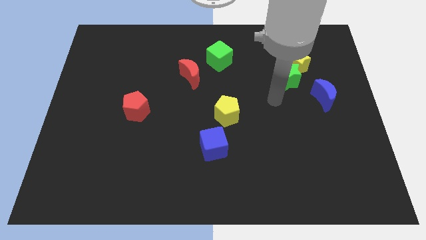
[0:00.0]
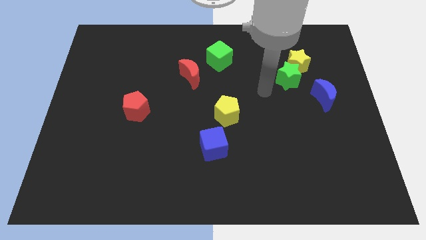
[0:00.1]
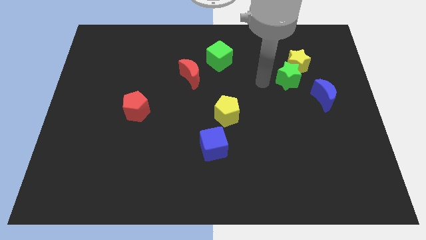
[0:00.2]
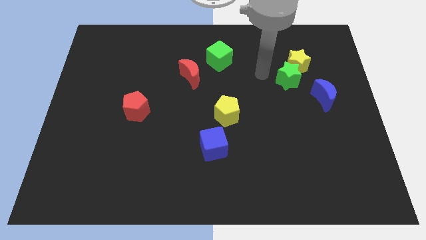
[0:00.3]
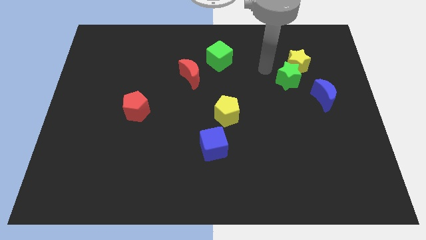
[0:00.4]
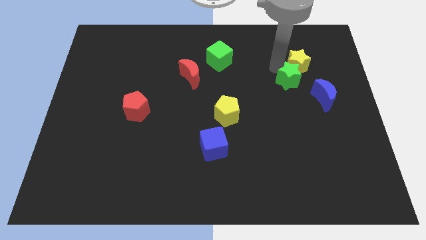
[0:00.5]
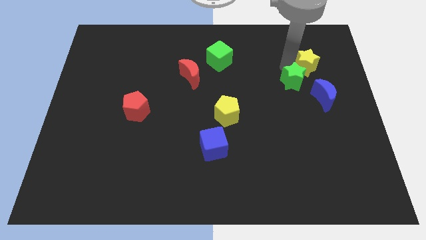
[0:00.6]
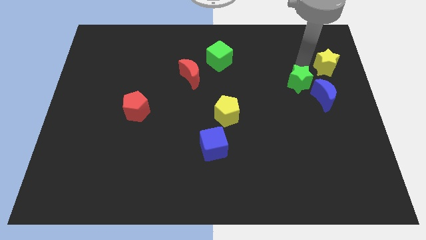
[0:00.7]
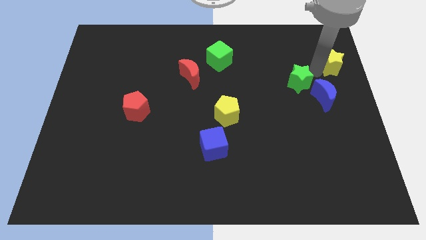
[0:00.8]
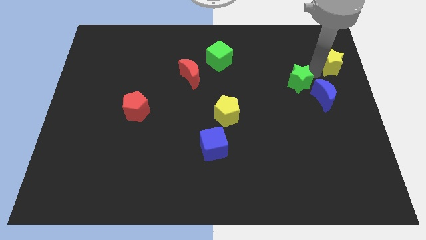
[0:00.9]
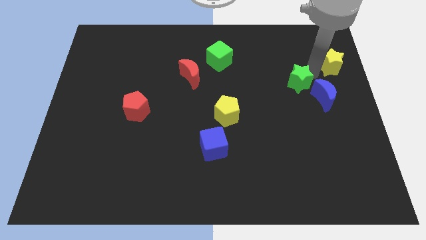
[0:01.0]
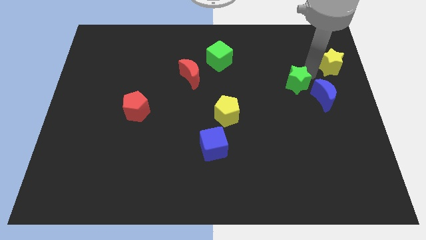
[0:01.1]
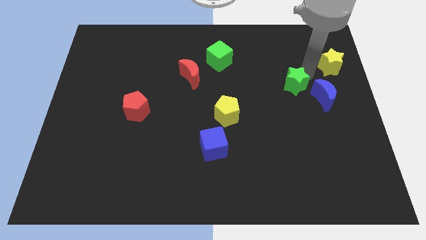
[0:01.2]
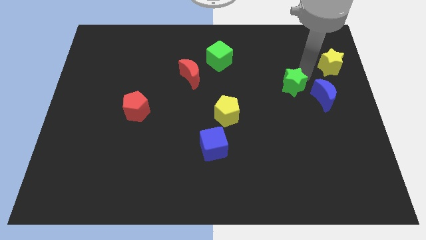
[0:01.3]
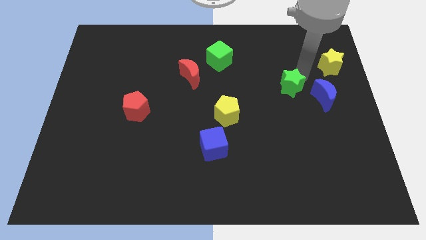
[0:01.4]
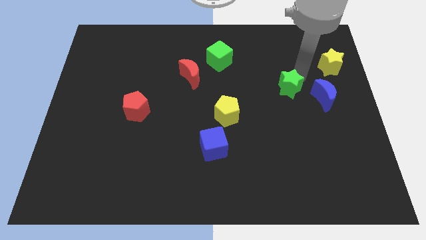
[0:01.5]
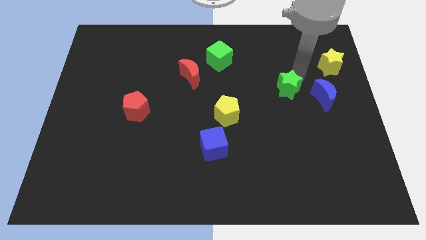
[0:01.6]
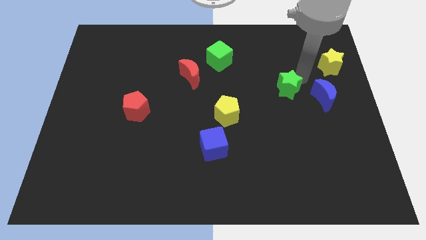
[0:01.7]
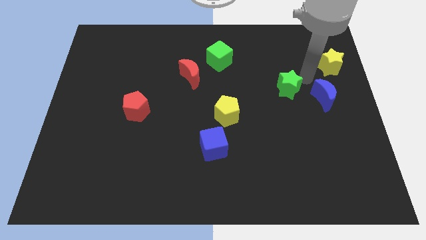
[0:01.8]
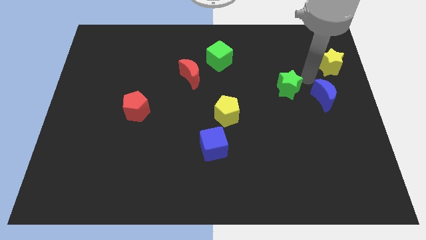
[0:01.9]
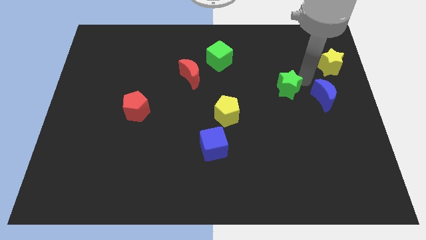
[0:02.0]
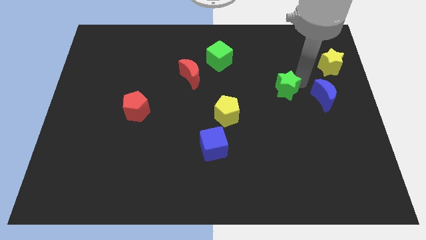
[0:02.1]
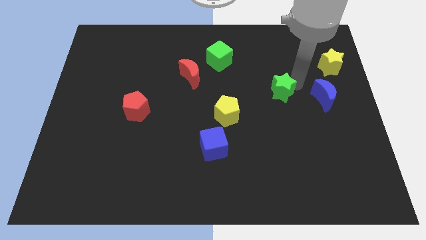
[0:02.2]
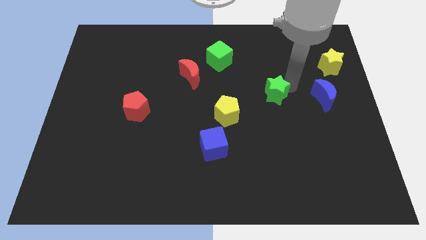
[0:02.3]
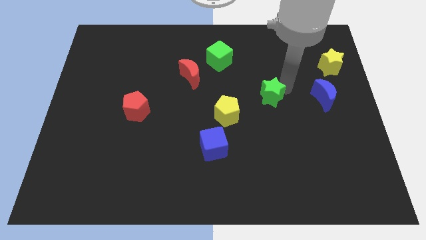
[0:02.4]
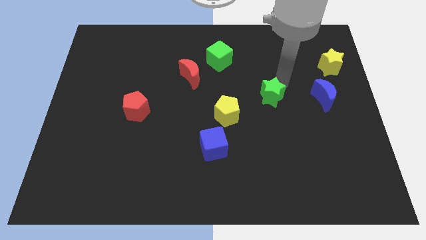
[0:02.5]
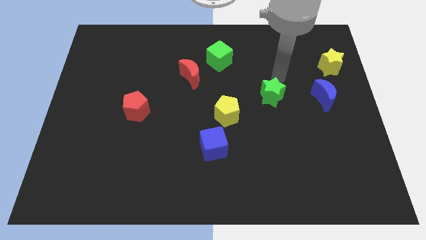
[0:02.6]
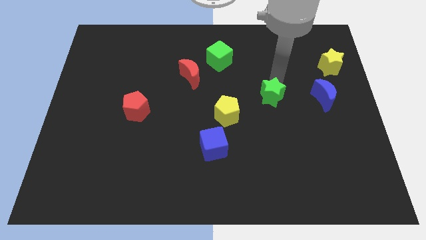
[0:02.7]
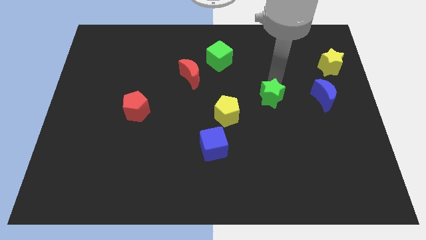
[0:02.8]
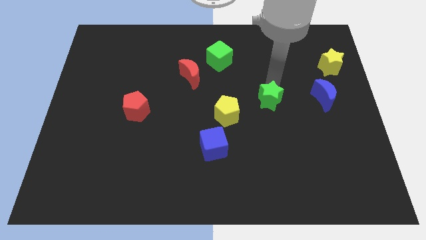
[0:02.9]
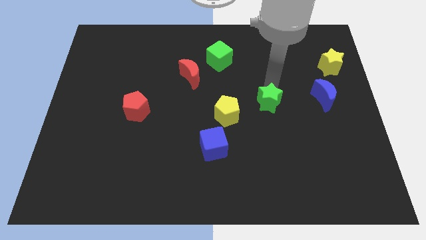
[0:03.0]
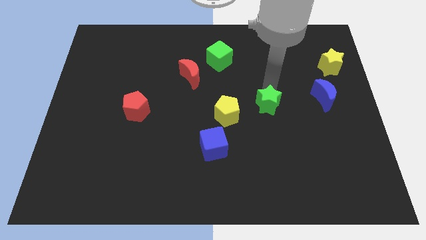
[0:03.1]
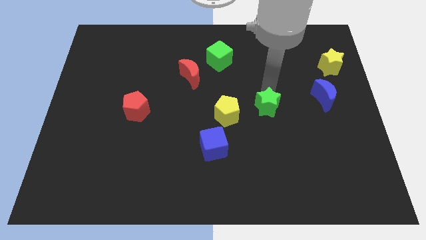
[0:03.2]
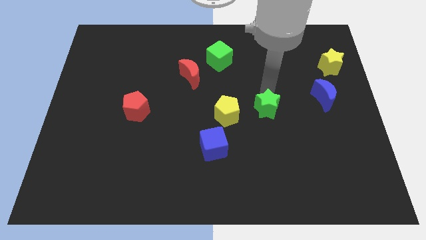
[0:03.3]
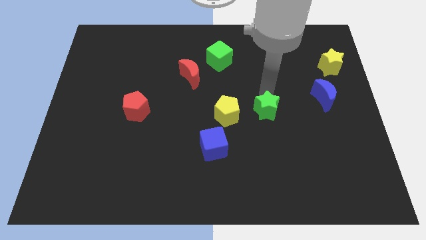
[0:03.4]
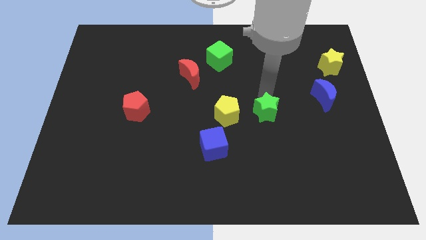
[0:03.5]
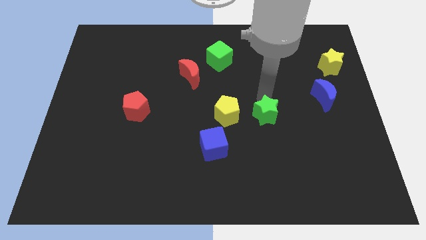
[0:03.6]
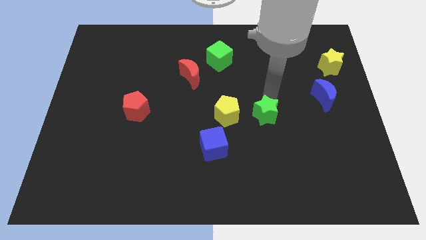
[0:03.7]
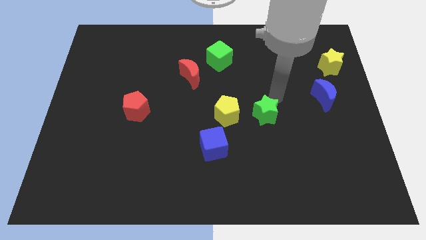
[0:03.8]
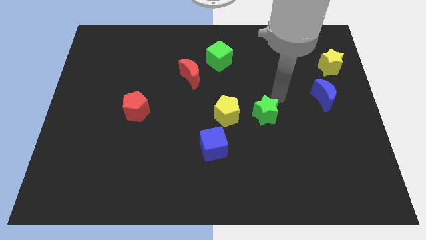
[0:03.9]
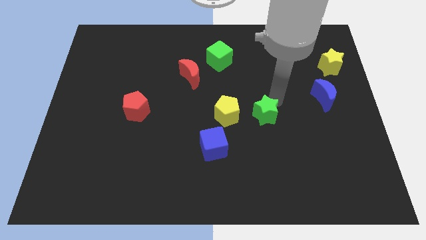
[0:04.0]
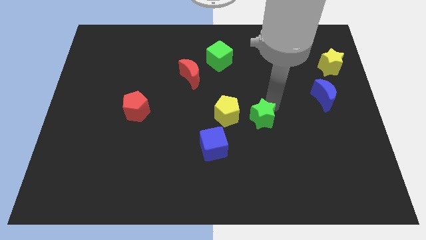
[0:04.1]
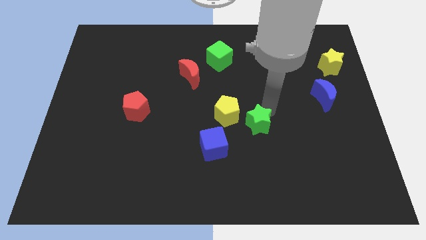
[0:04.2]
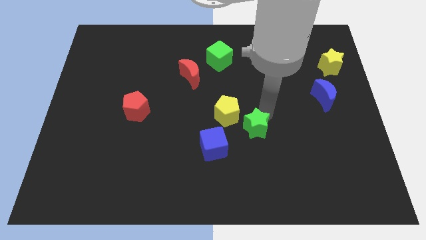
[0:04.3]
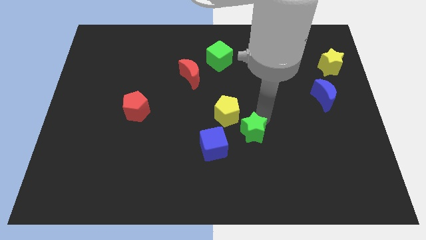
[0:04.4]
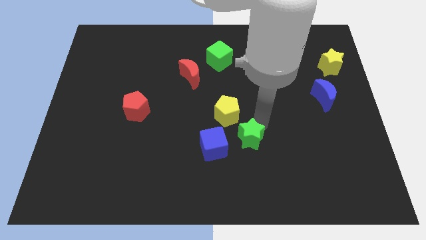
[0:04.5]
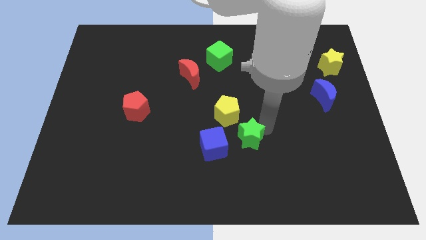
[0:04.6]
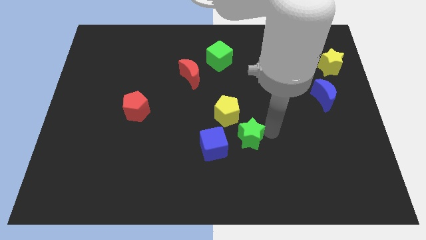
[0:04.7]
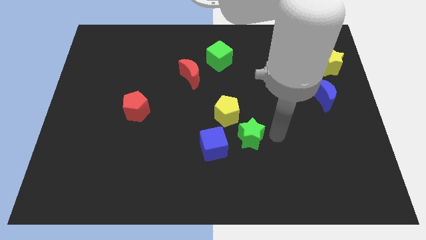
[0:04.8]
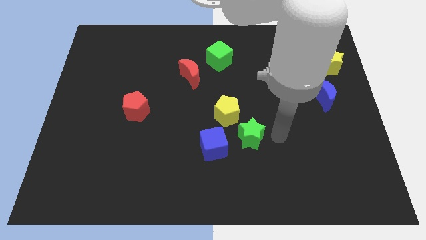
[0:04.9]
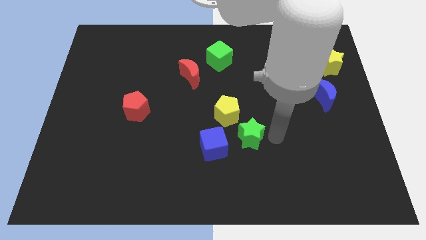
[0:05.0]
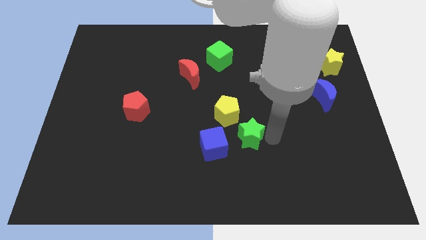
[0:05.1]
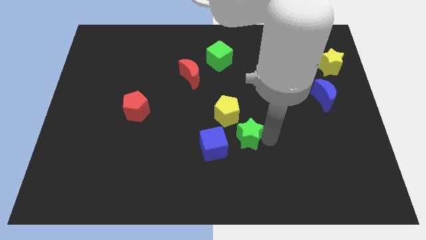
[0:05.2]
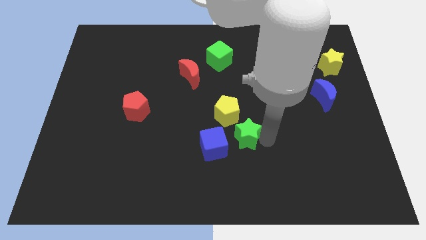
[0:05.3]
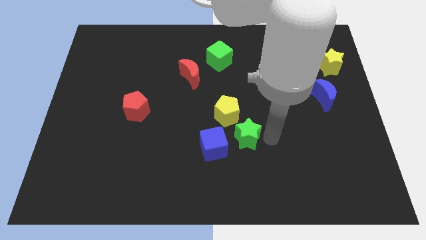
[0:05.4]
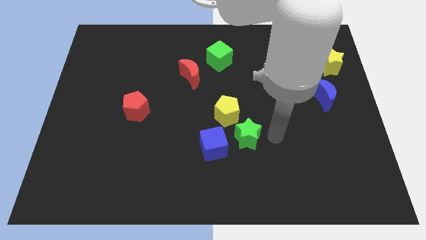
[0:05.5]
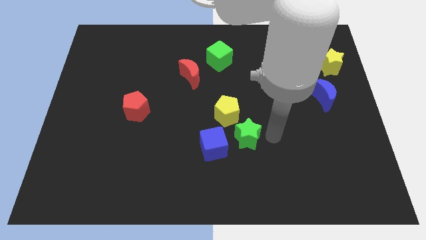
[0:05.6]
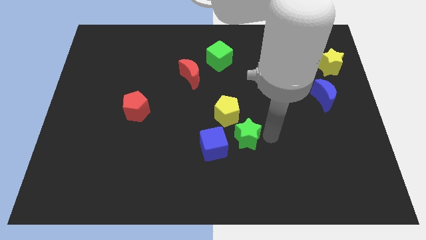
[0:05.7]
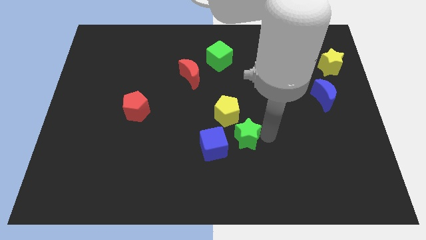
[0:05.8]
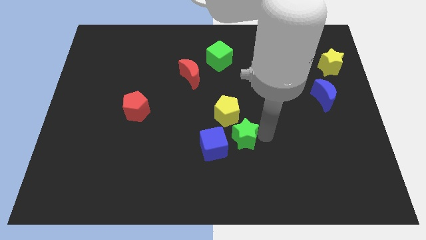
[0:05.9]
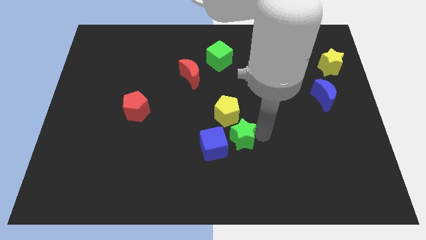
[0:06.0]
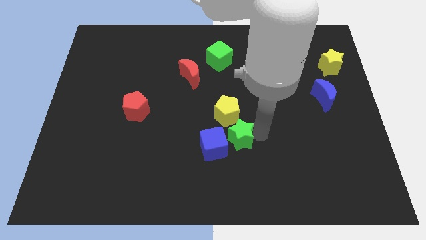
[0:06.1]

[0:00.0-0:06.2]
move the green star close to the blue cube
